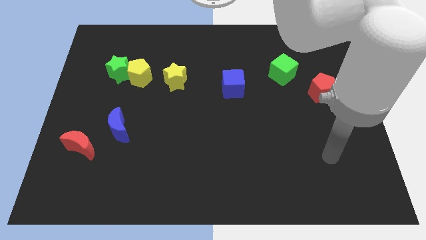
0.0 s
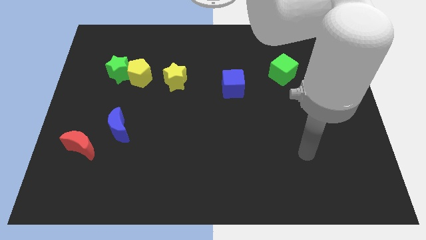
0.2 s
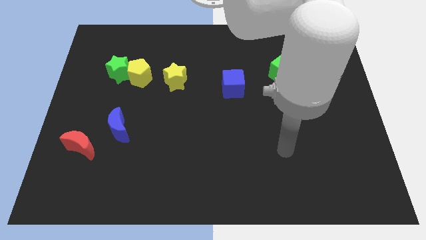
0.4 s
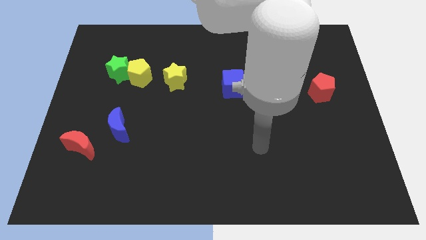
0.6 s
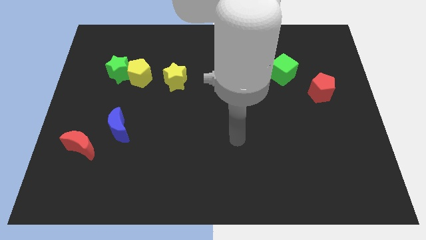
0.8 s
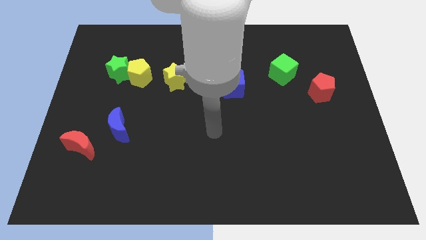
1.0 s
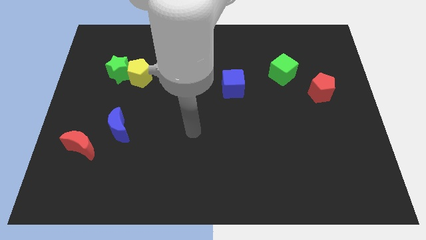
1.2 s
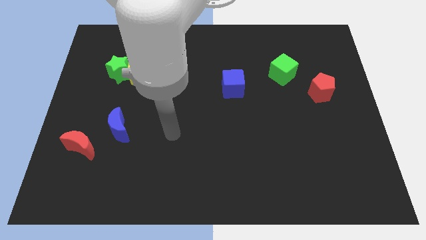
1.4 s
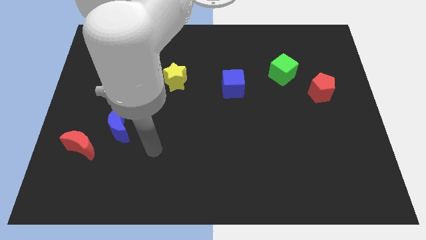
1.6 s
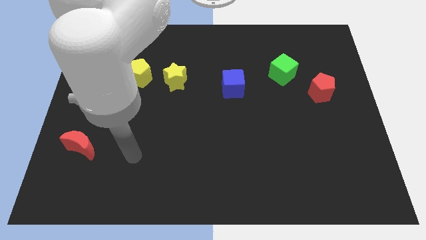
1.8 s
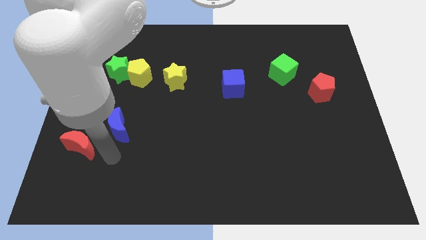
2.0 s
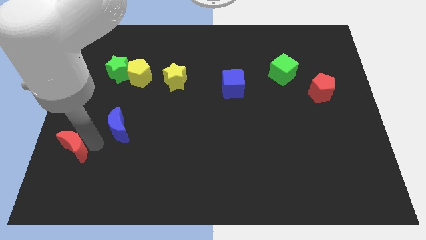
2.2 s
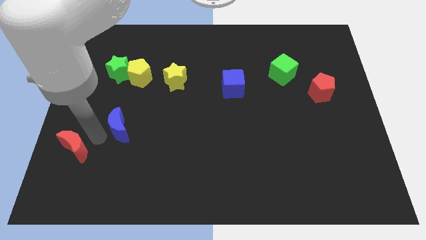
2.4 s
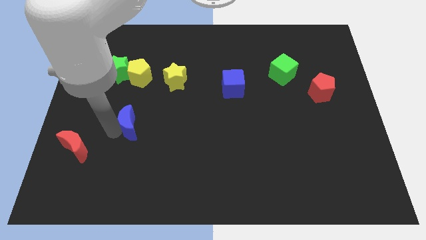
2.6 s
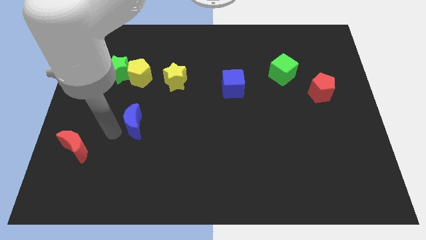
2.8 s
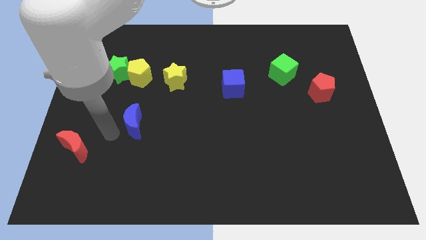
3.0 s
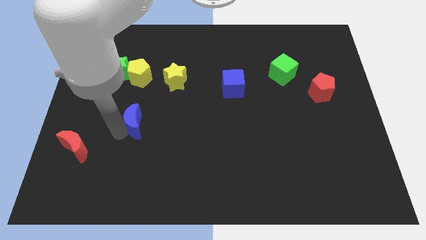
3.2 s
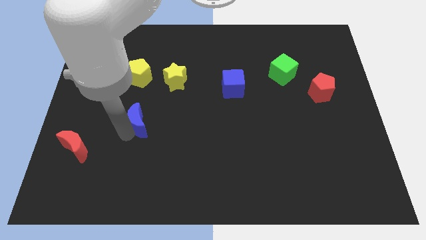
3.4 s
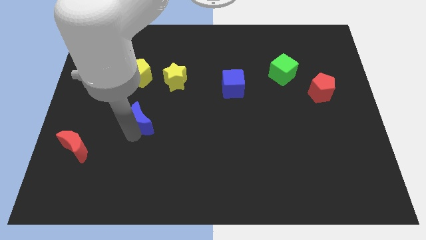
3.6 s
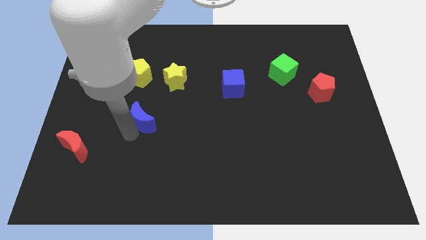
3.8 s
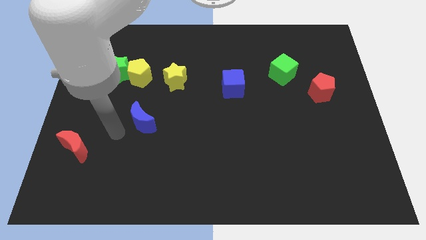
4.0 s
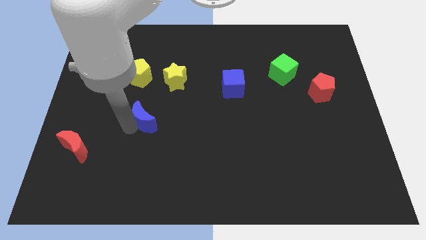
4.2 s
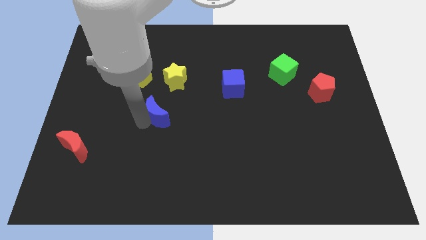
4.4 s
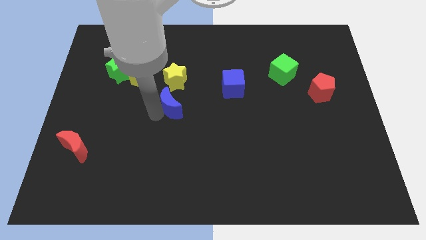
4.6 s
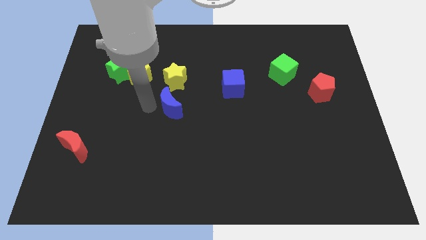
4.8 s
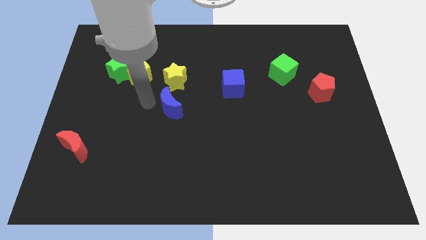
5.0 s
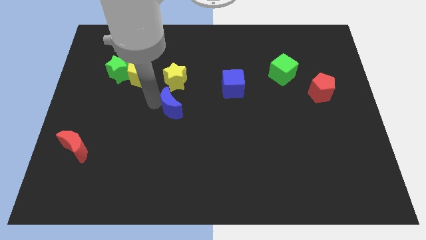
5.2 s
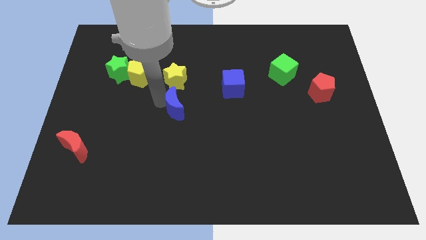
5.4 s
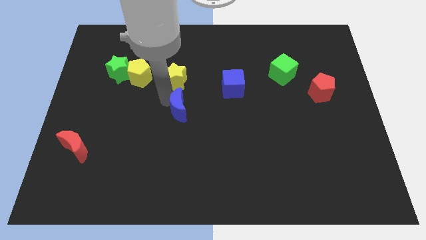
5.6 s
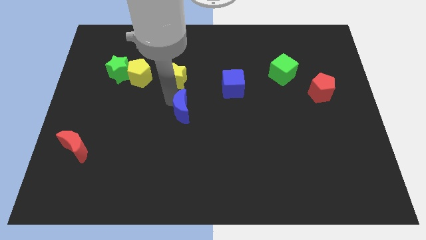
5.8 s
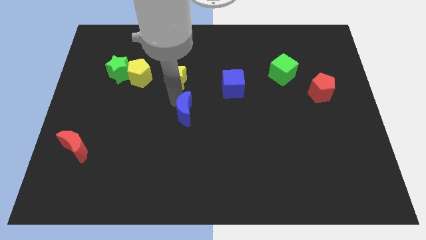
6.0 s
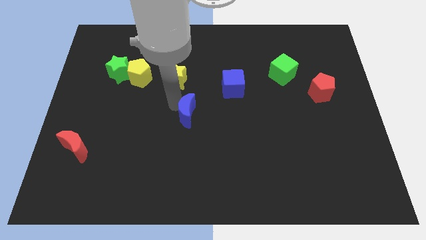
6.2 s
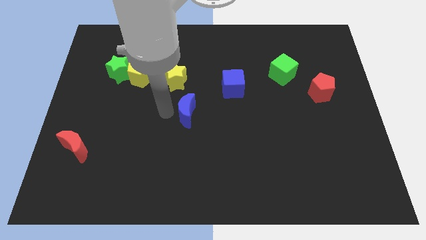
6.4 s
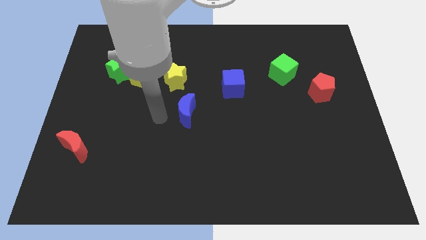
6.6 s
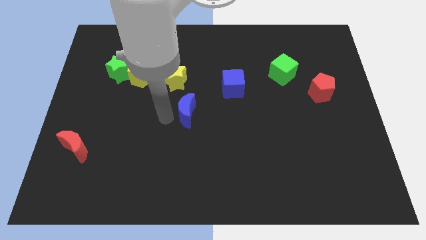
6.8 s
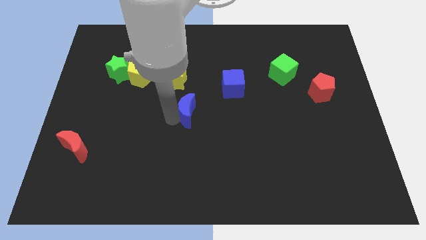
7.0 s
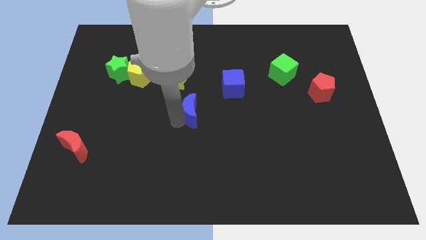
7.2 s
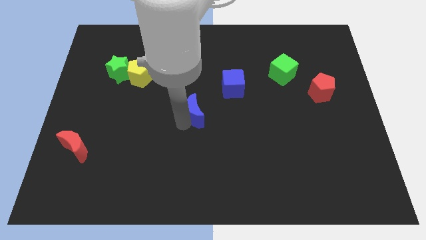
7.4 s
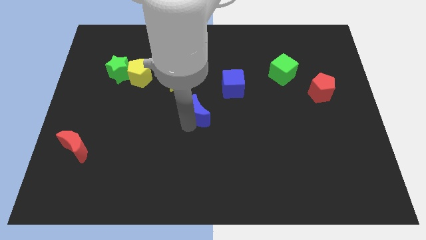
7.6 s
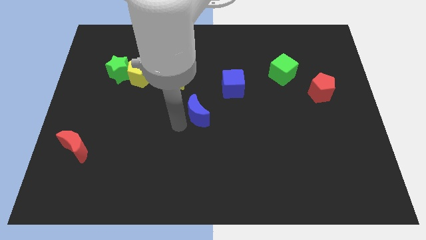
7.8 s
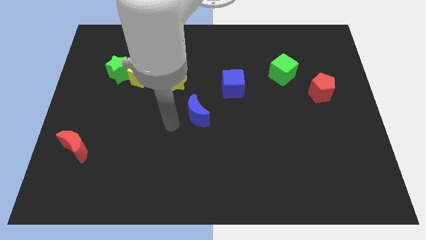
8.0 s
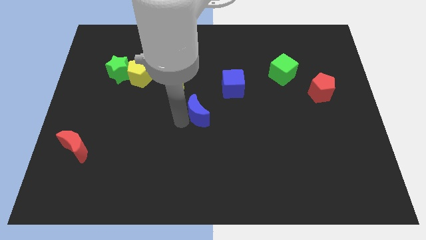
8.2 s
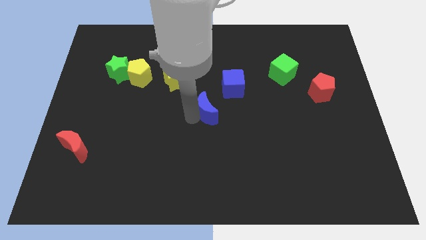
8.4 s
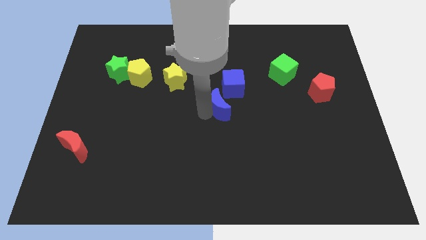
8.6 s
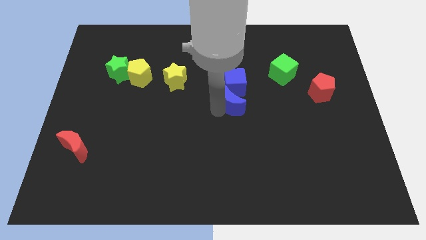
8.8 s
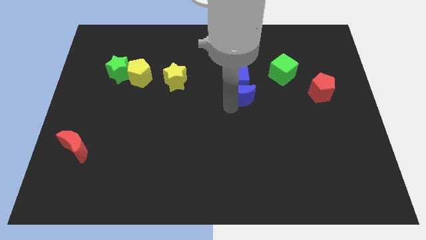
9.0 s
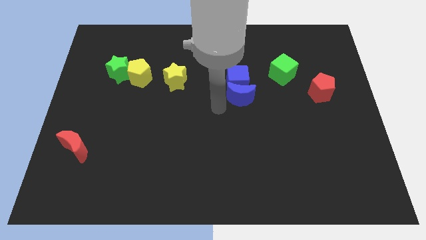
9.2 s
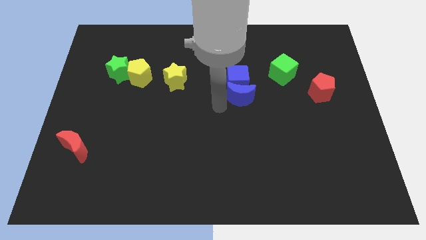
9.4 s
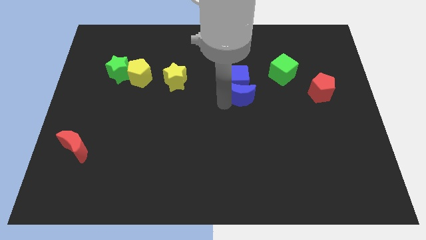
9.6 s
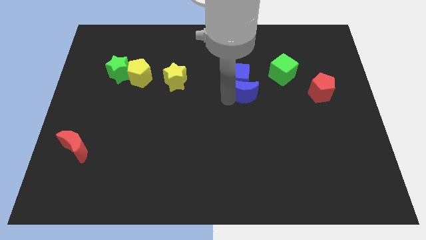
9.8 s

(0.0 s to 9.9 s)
push the blue moon to the bottom left side of the green cube

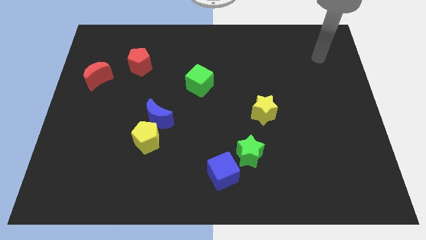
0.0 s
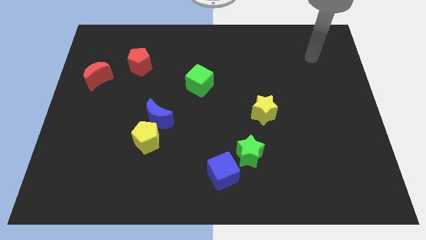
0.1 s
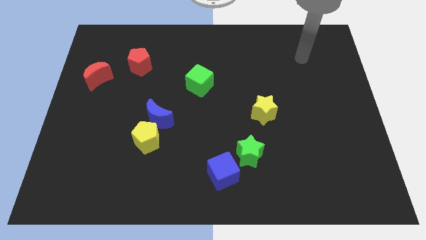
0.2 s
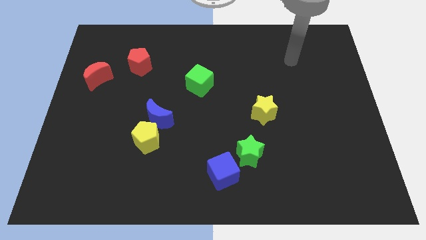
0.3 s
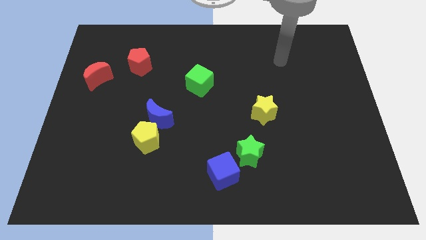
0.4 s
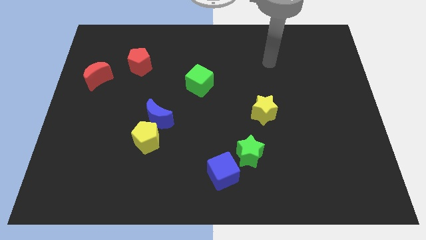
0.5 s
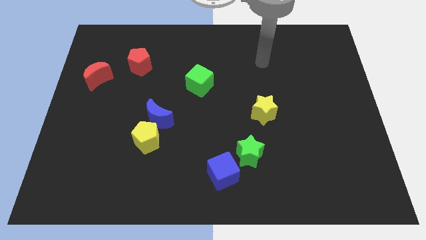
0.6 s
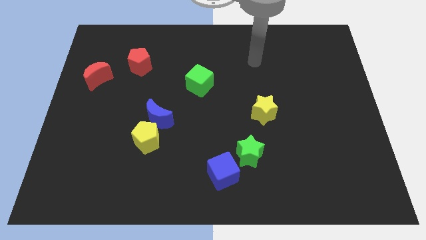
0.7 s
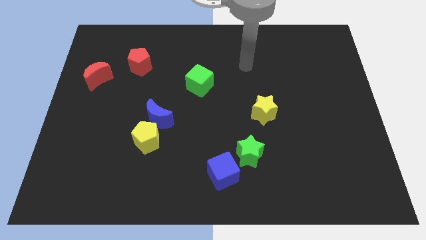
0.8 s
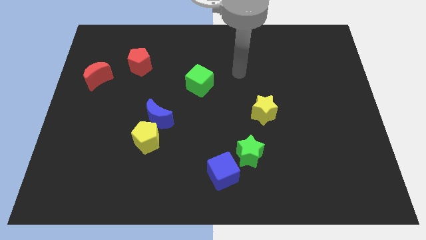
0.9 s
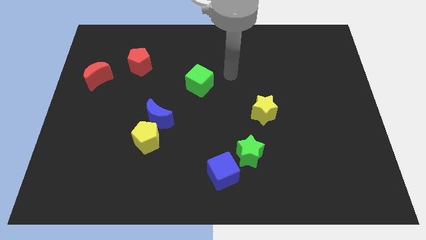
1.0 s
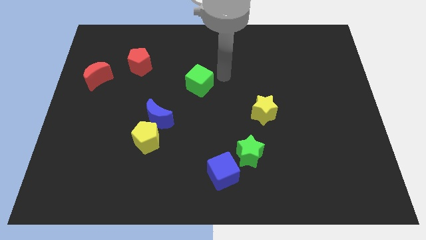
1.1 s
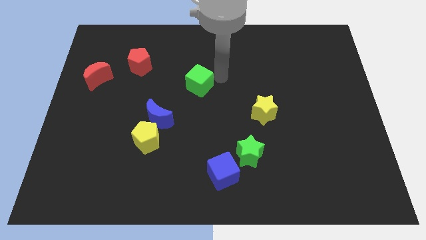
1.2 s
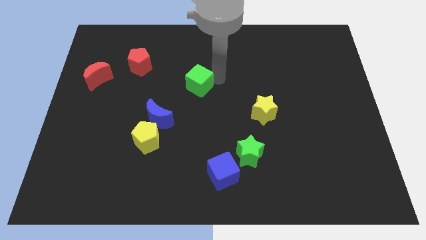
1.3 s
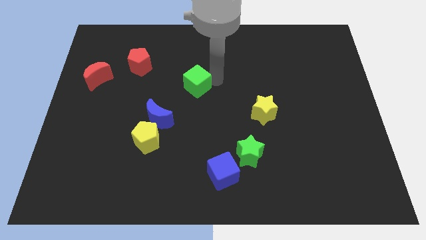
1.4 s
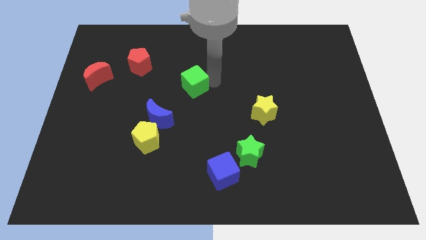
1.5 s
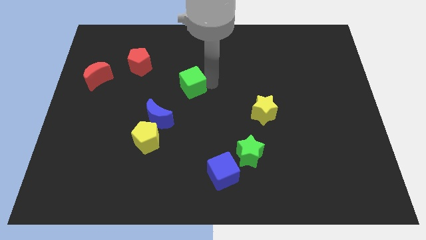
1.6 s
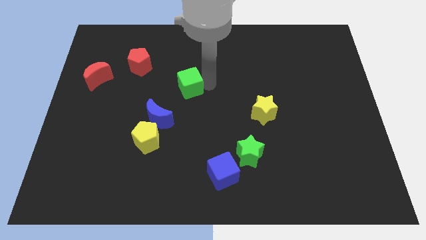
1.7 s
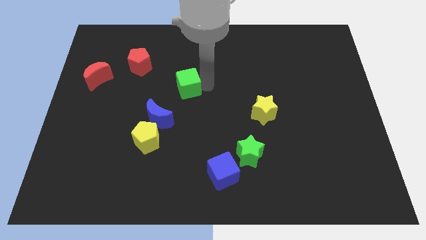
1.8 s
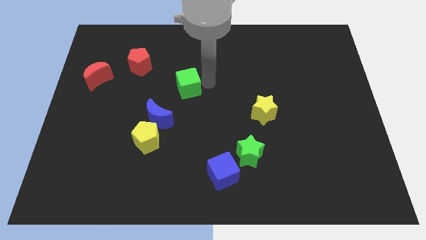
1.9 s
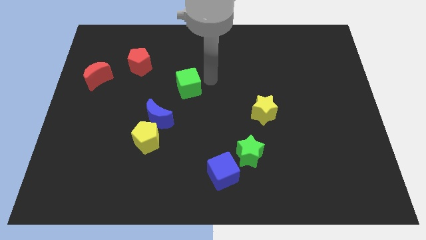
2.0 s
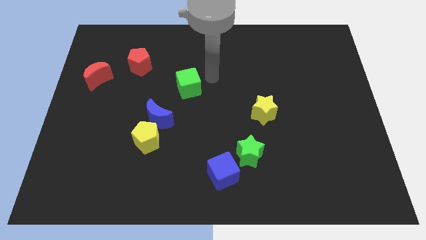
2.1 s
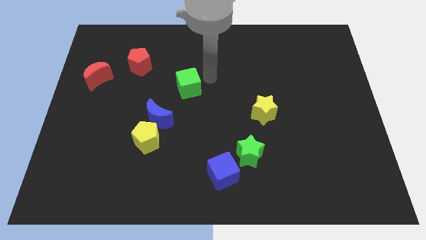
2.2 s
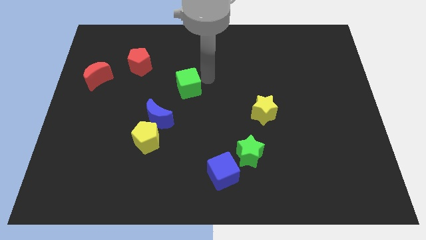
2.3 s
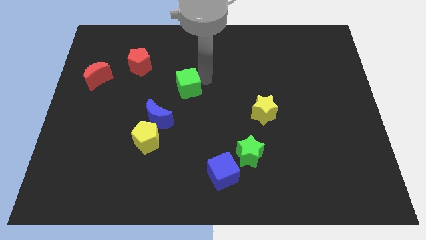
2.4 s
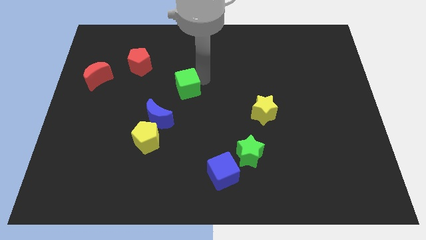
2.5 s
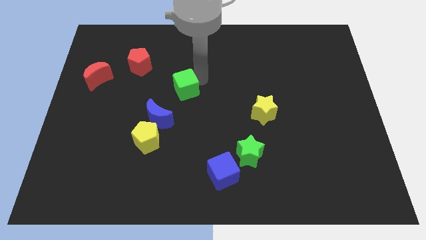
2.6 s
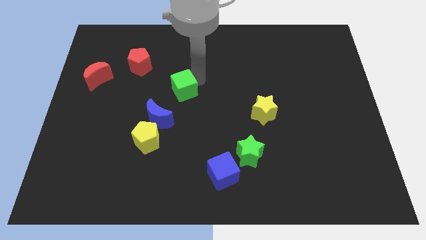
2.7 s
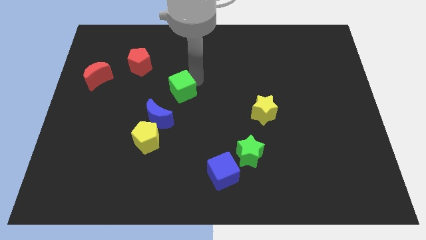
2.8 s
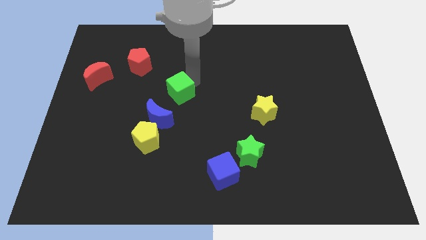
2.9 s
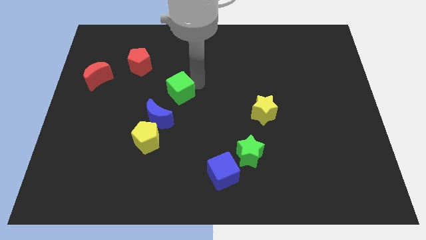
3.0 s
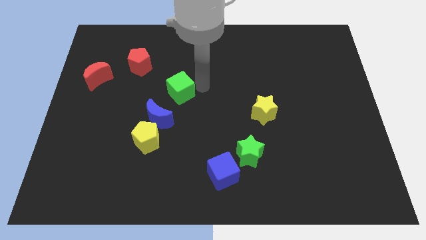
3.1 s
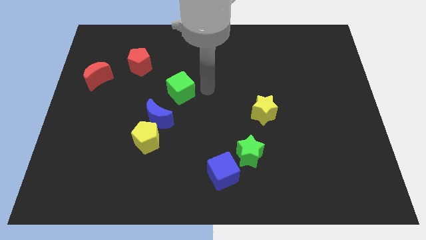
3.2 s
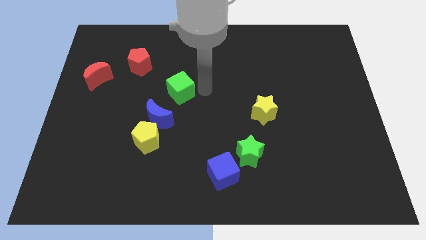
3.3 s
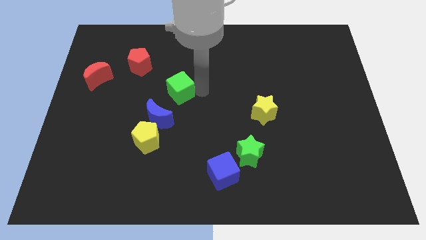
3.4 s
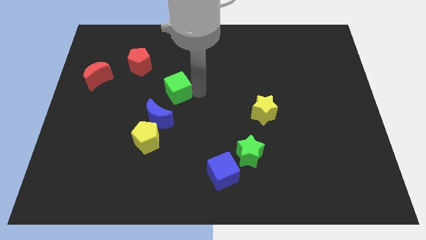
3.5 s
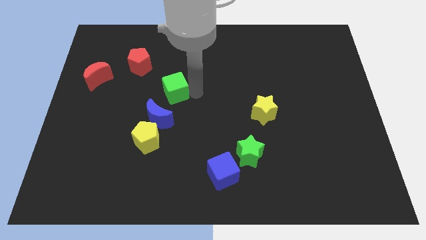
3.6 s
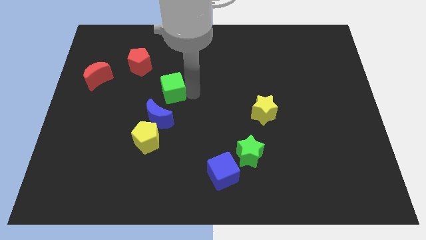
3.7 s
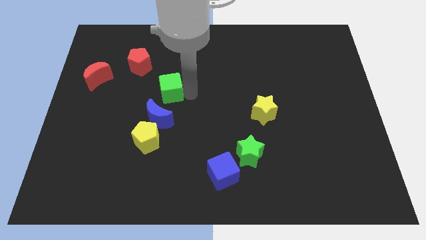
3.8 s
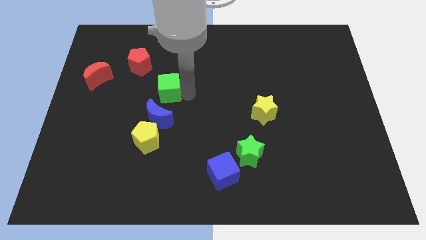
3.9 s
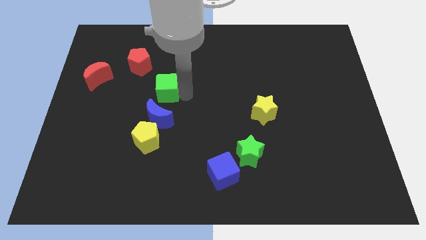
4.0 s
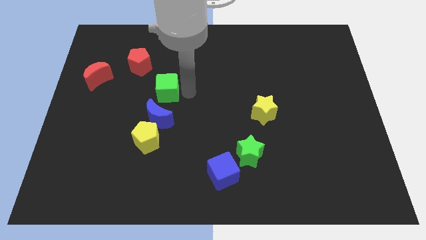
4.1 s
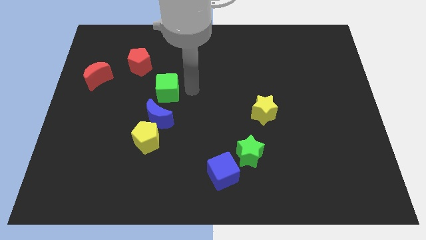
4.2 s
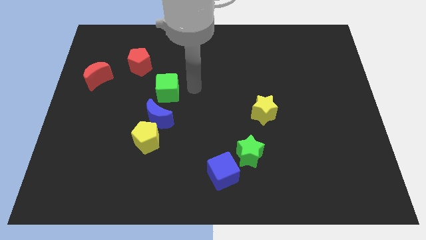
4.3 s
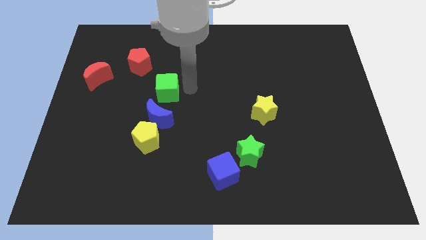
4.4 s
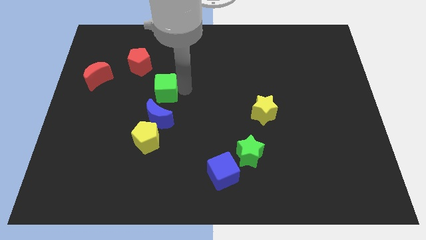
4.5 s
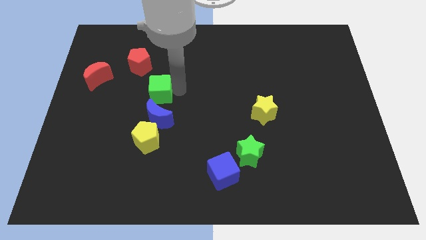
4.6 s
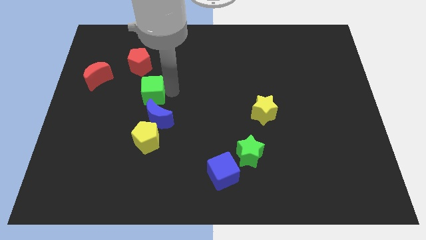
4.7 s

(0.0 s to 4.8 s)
move the green cube to the bottom side of the red pentagon
